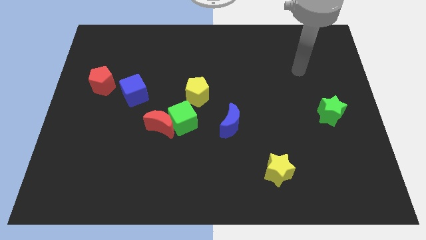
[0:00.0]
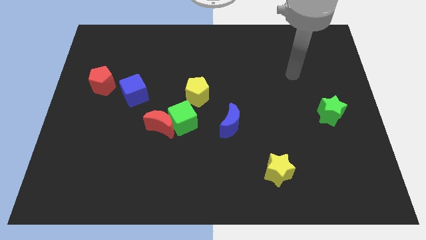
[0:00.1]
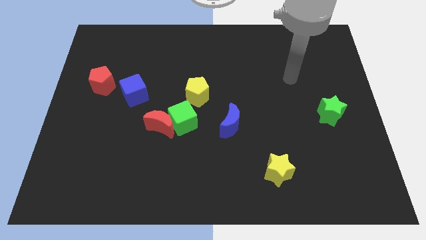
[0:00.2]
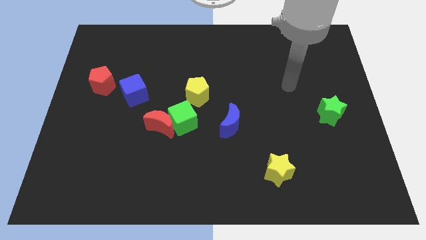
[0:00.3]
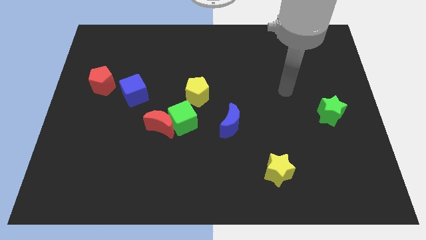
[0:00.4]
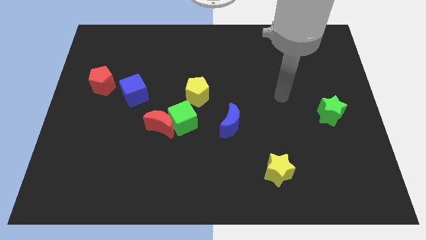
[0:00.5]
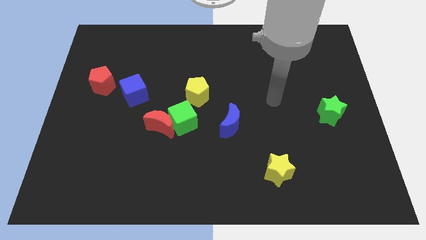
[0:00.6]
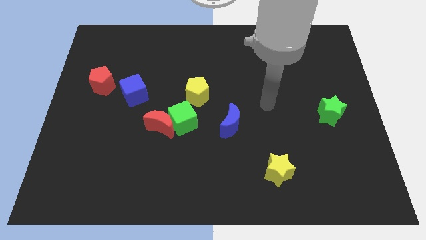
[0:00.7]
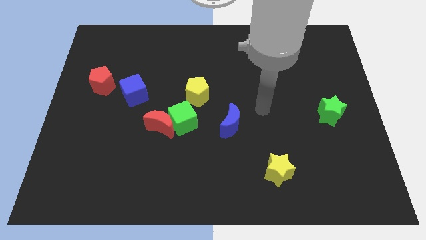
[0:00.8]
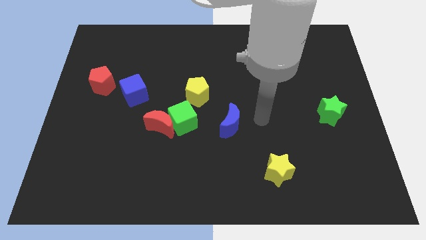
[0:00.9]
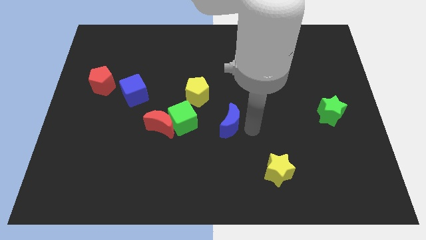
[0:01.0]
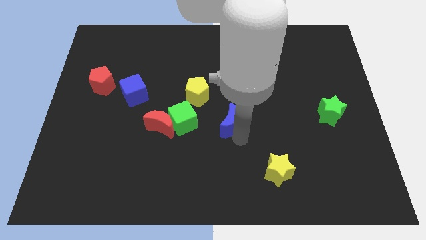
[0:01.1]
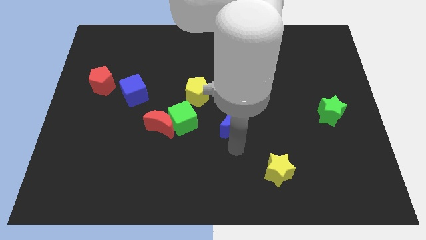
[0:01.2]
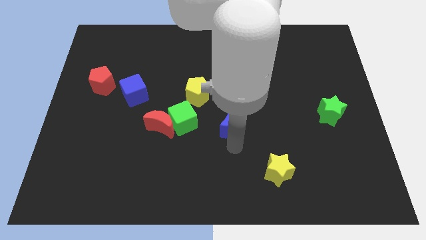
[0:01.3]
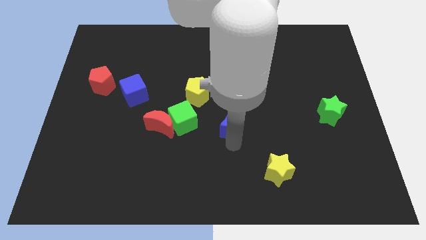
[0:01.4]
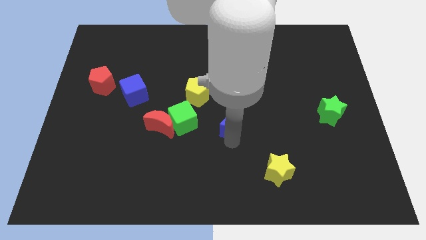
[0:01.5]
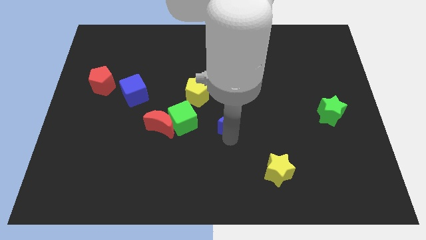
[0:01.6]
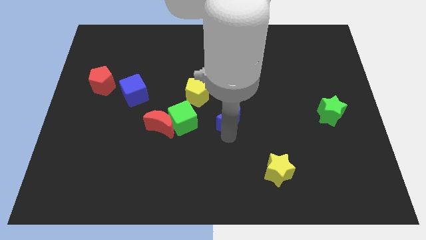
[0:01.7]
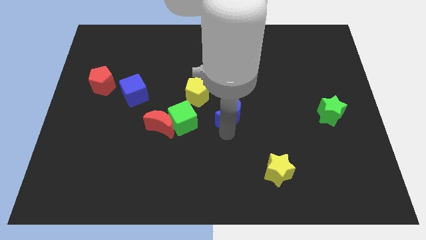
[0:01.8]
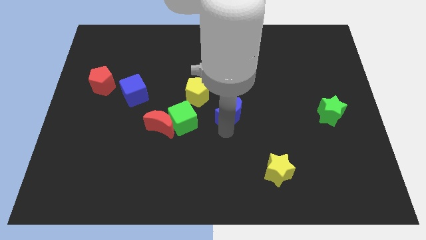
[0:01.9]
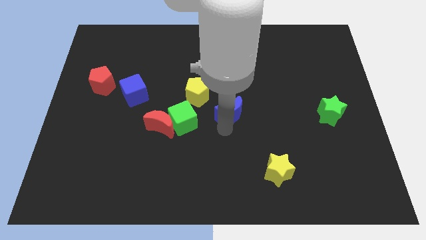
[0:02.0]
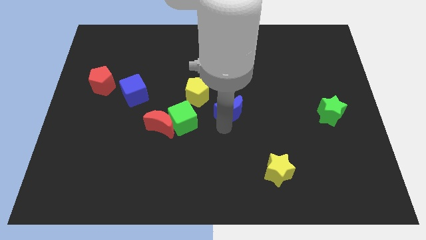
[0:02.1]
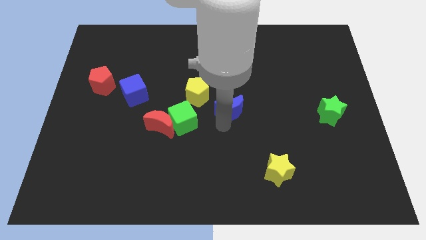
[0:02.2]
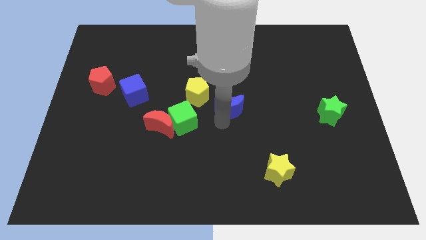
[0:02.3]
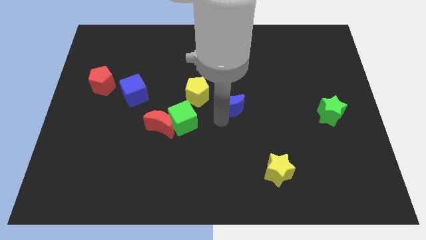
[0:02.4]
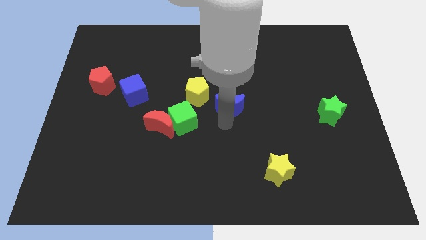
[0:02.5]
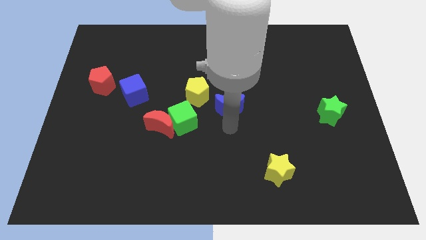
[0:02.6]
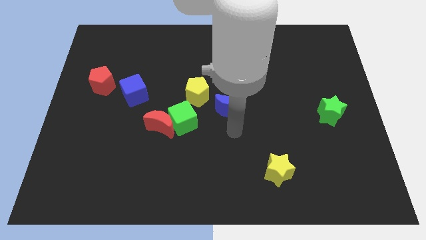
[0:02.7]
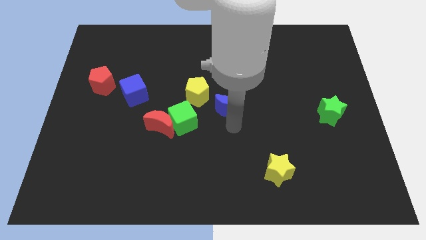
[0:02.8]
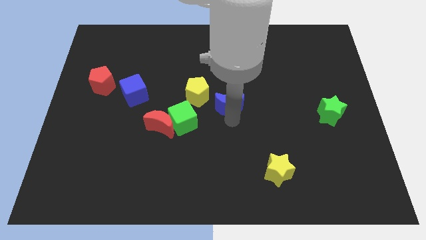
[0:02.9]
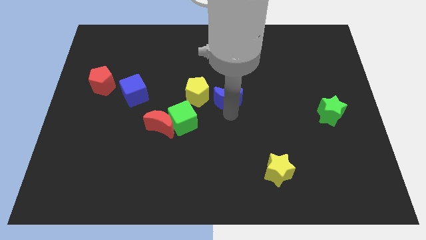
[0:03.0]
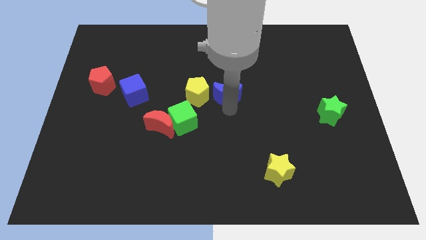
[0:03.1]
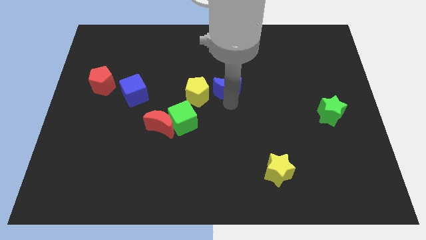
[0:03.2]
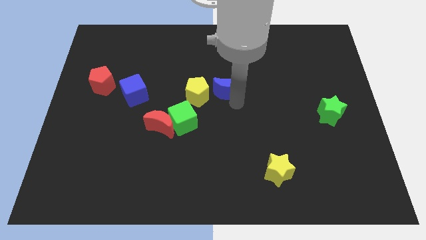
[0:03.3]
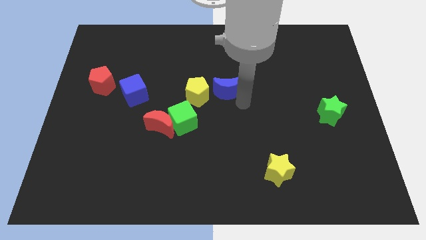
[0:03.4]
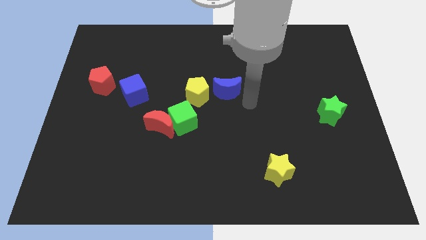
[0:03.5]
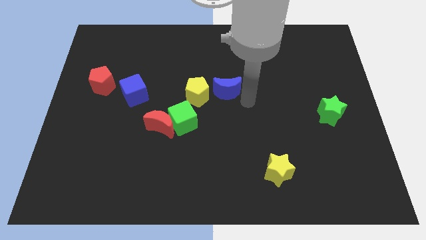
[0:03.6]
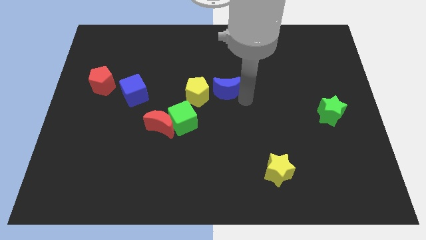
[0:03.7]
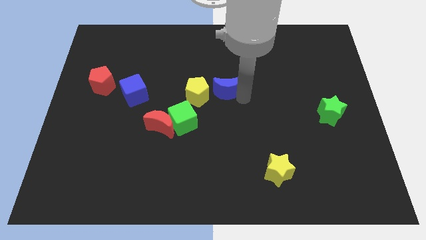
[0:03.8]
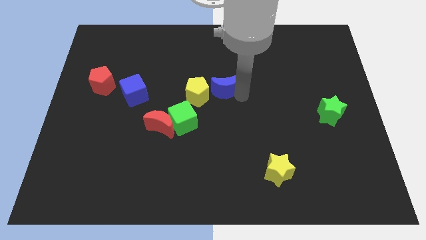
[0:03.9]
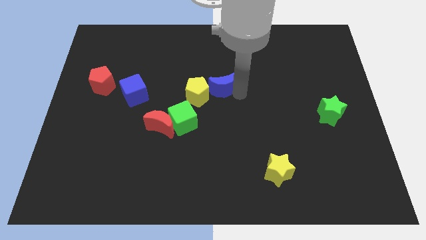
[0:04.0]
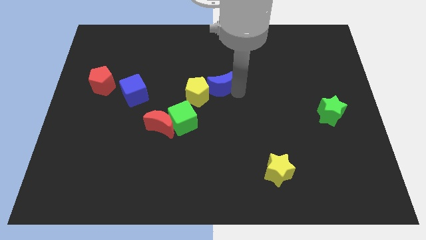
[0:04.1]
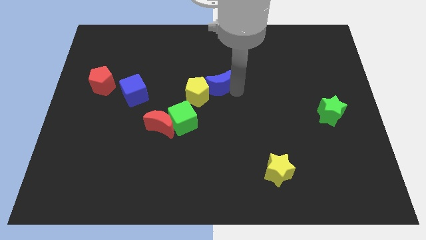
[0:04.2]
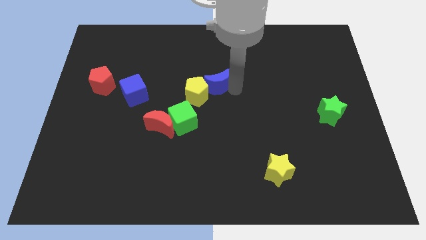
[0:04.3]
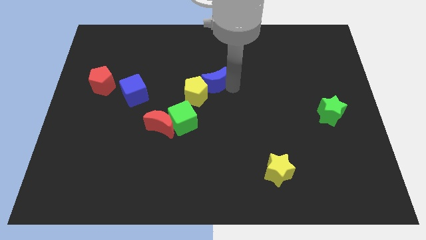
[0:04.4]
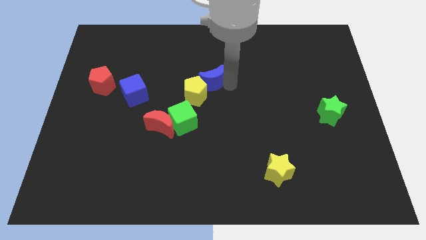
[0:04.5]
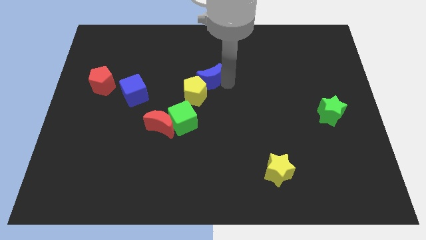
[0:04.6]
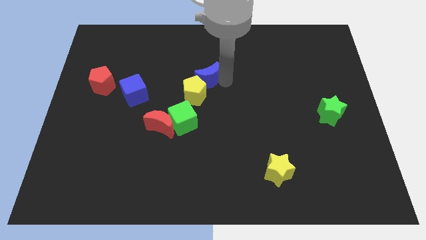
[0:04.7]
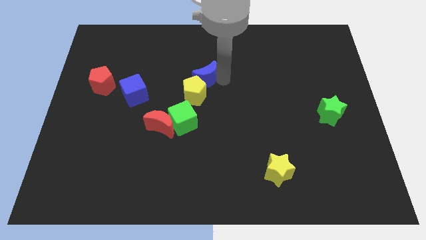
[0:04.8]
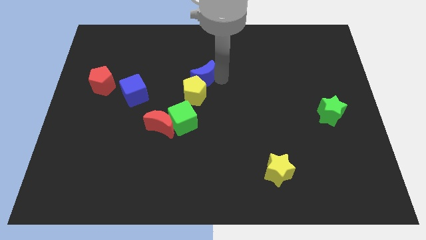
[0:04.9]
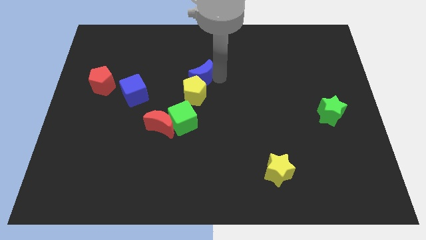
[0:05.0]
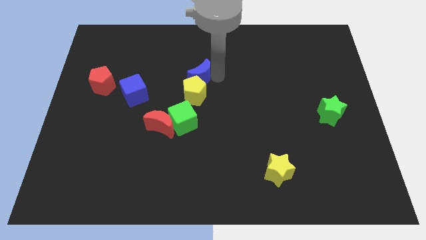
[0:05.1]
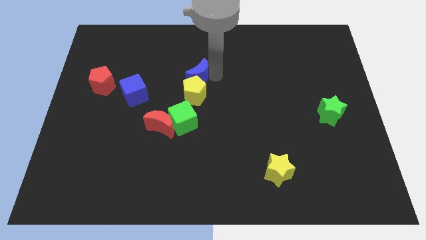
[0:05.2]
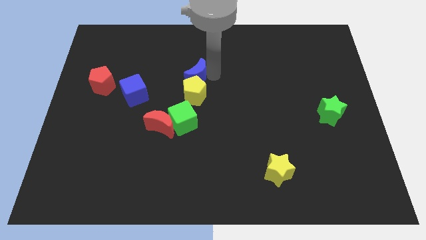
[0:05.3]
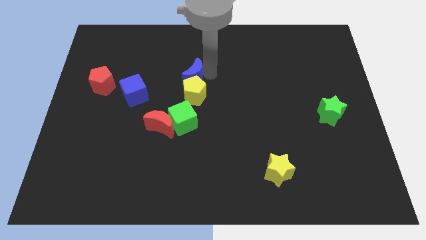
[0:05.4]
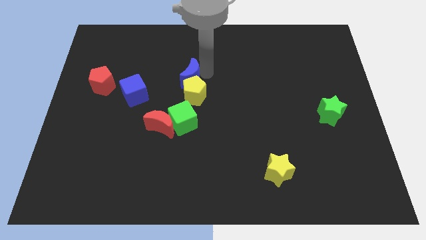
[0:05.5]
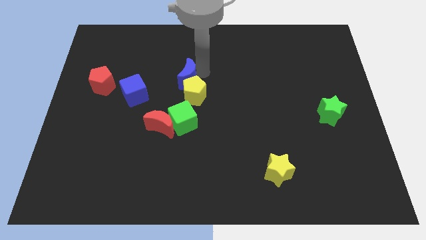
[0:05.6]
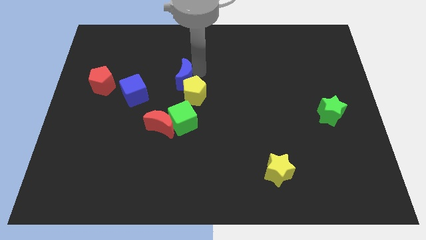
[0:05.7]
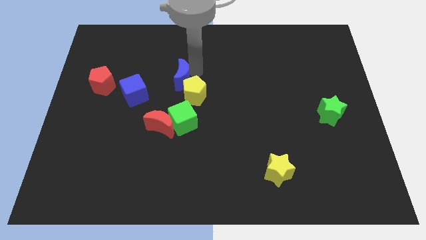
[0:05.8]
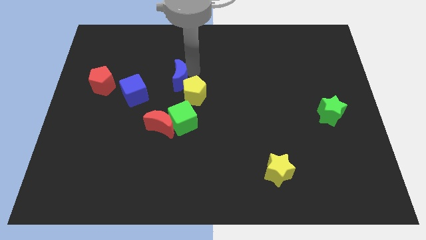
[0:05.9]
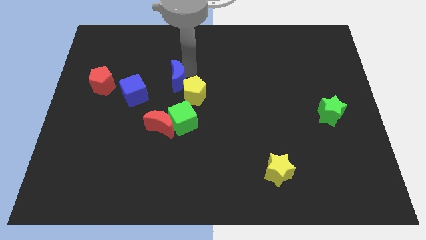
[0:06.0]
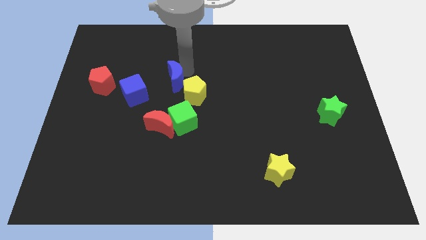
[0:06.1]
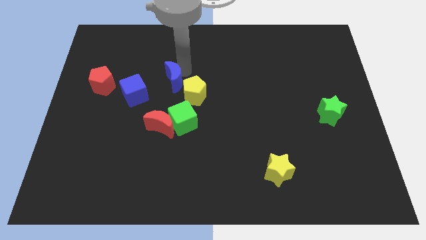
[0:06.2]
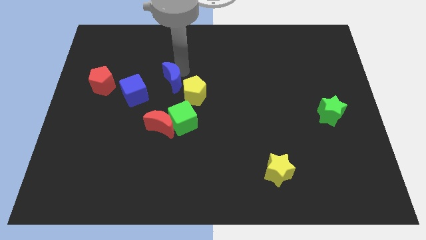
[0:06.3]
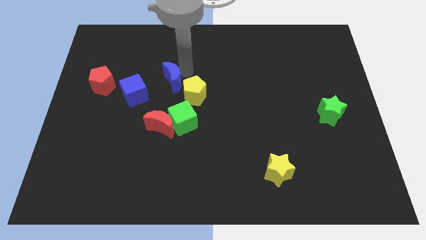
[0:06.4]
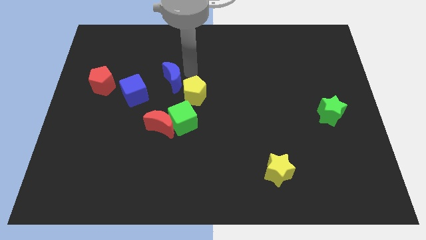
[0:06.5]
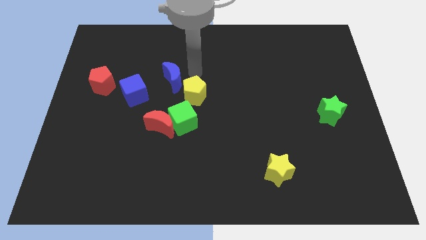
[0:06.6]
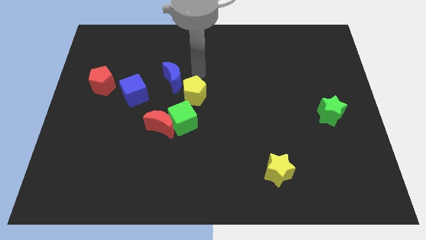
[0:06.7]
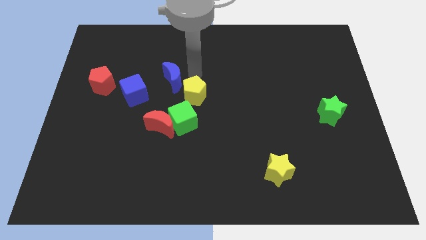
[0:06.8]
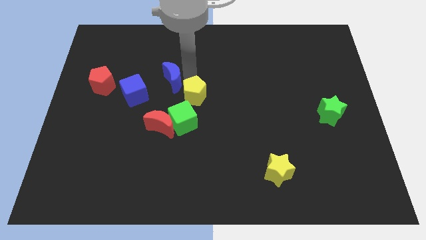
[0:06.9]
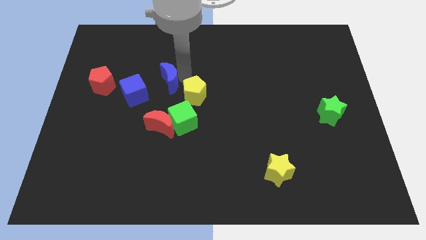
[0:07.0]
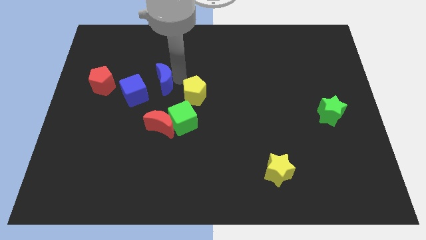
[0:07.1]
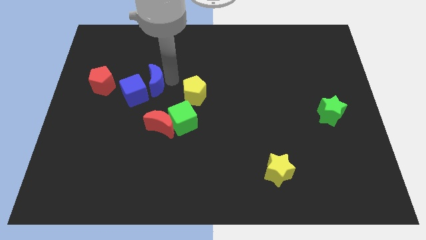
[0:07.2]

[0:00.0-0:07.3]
move the blue moon to the blue cube

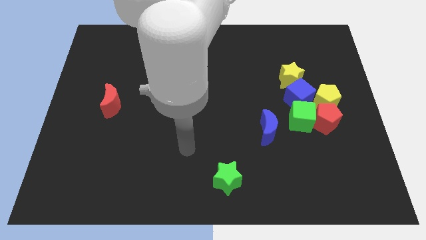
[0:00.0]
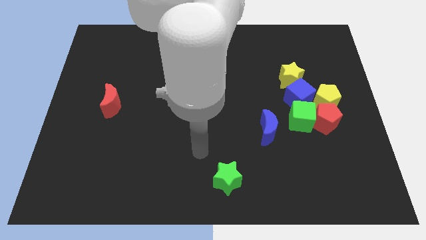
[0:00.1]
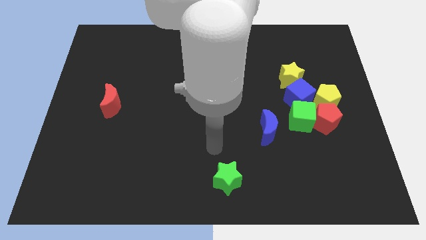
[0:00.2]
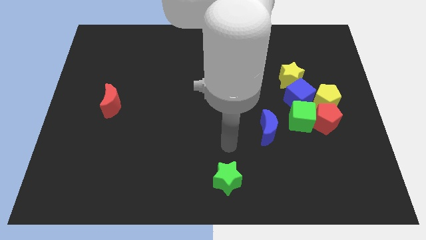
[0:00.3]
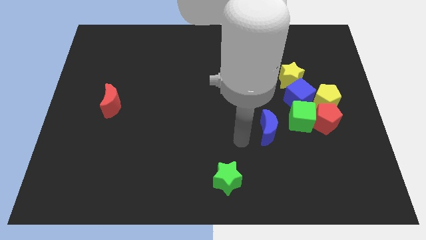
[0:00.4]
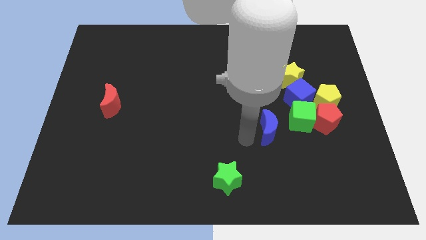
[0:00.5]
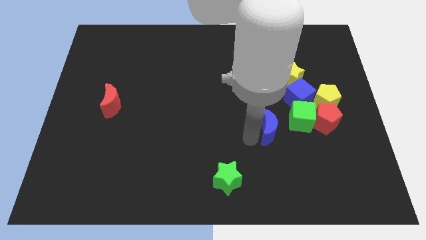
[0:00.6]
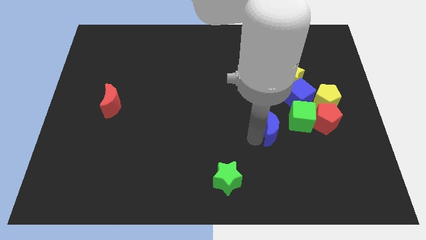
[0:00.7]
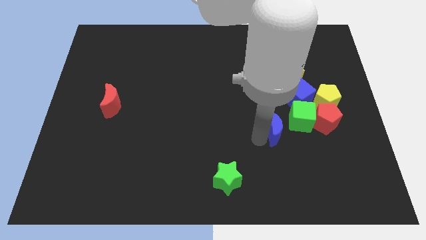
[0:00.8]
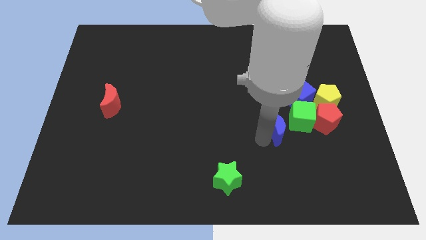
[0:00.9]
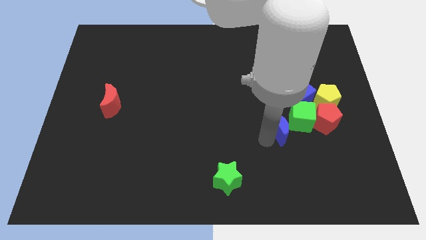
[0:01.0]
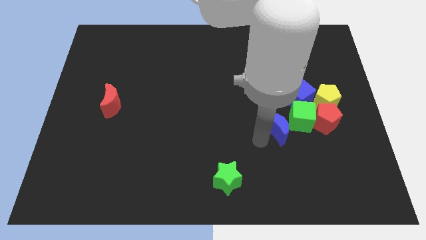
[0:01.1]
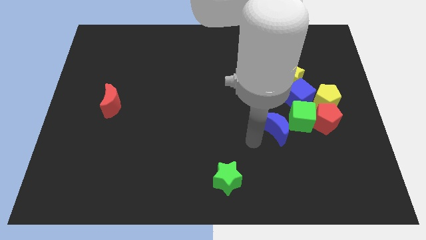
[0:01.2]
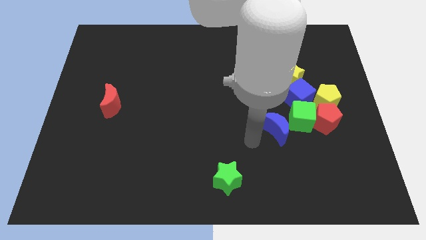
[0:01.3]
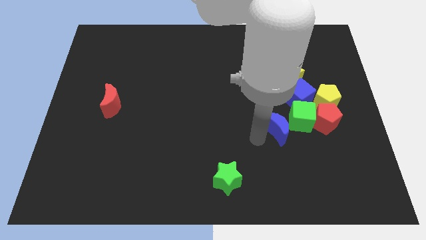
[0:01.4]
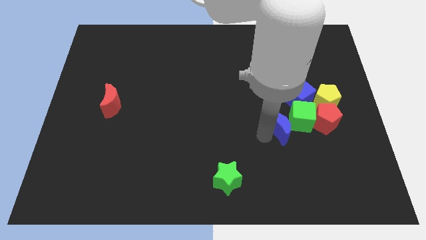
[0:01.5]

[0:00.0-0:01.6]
put the blue moon to the green cube
